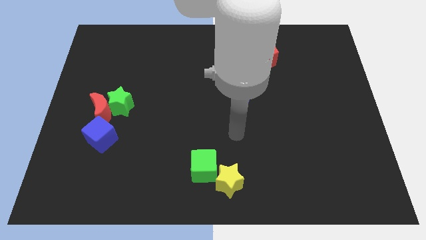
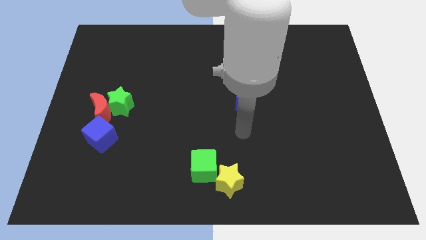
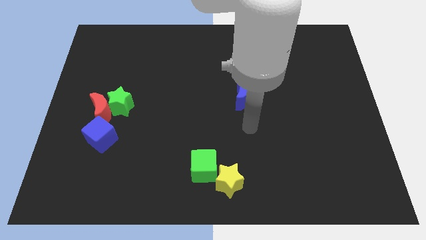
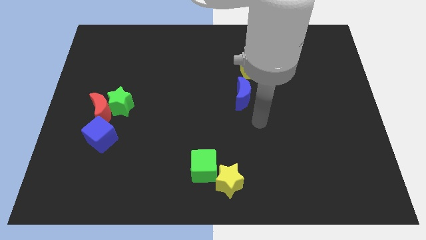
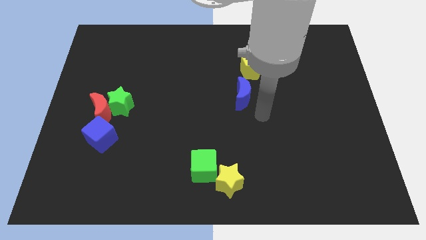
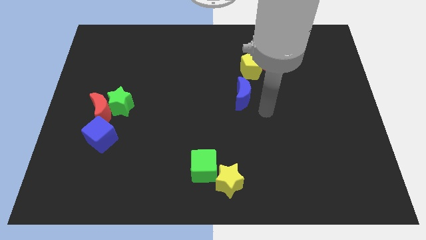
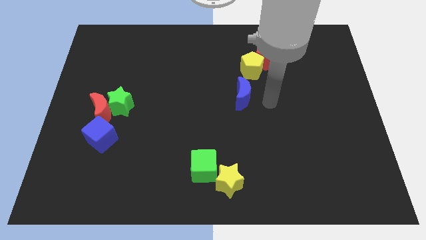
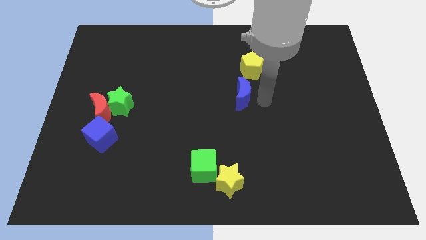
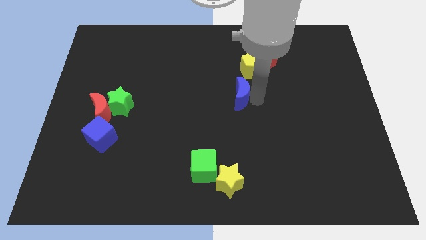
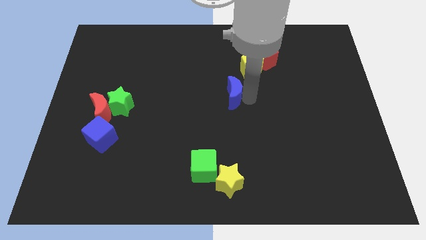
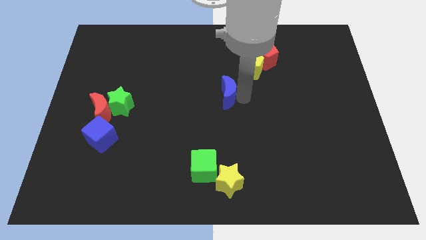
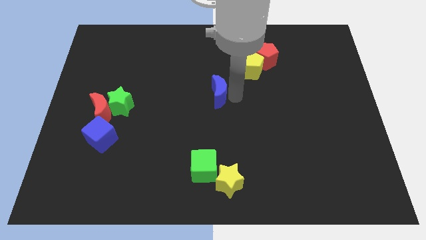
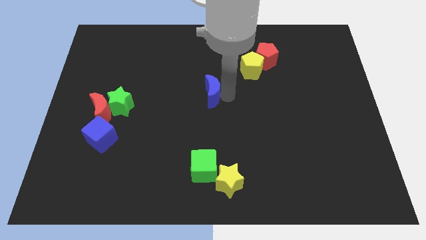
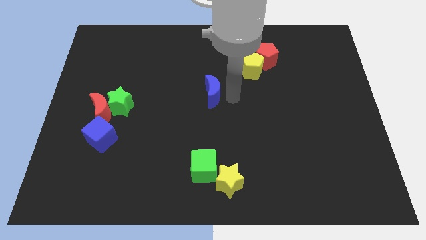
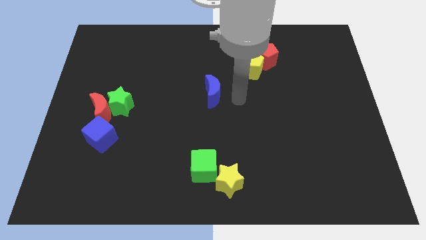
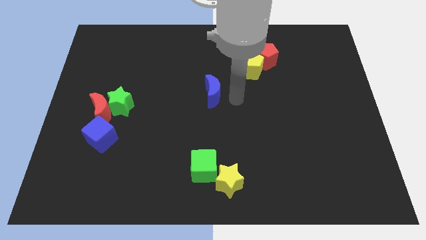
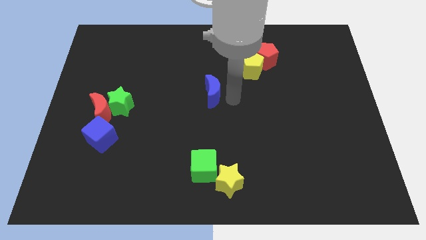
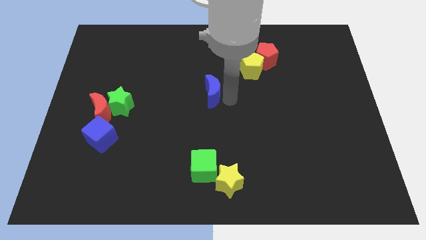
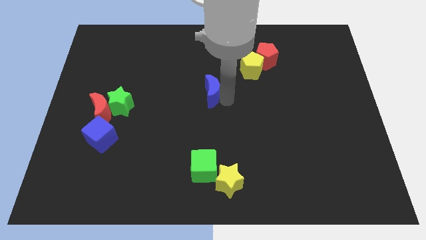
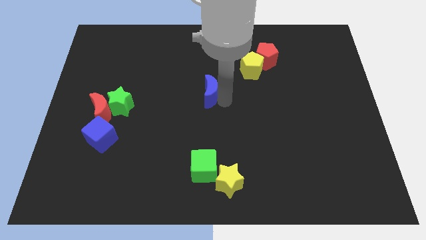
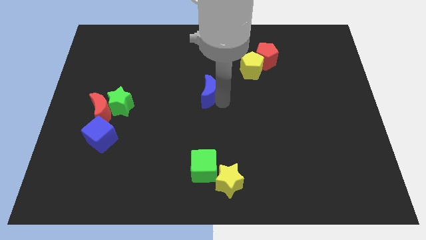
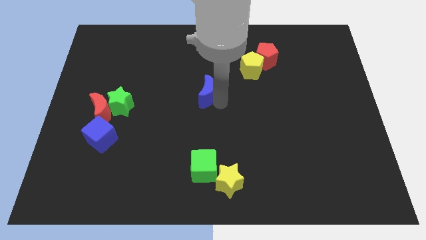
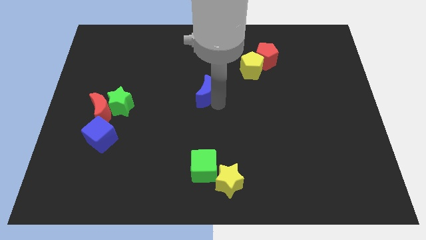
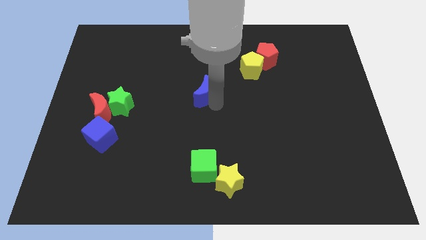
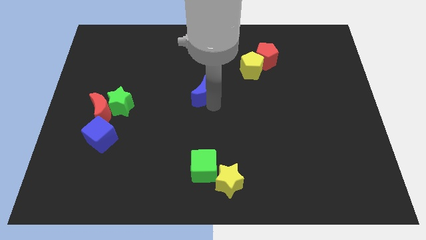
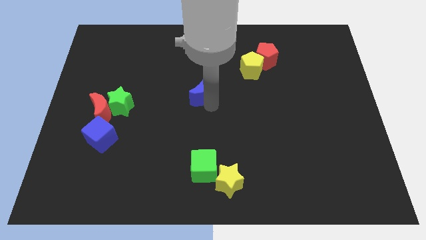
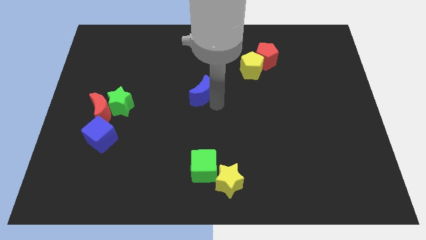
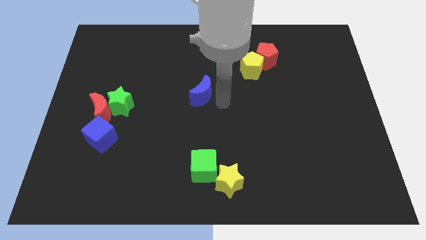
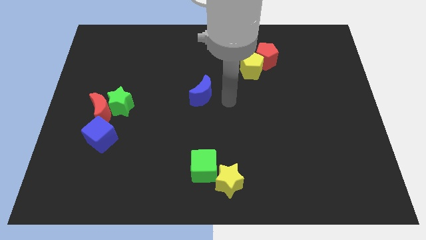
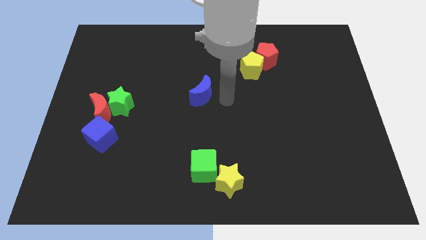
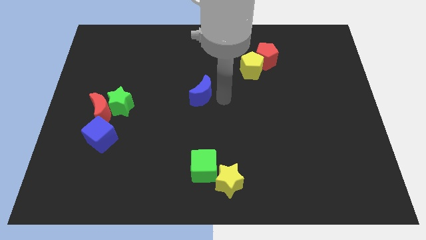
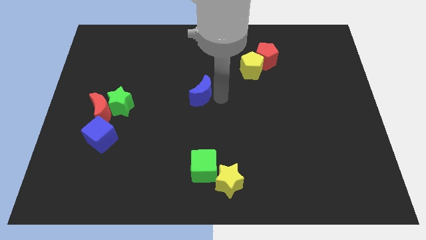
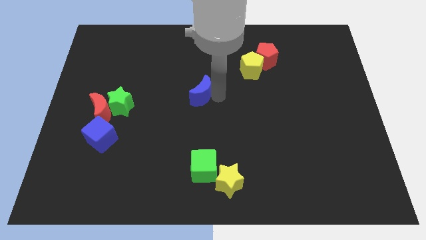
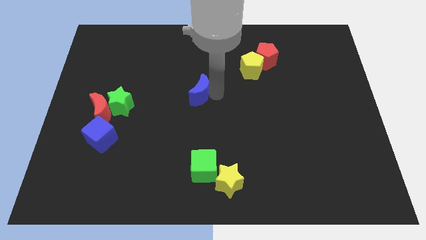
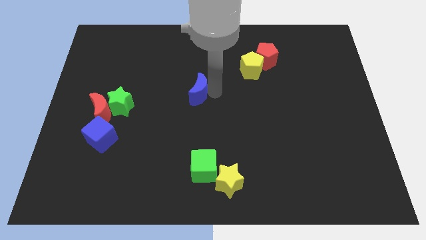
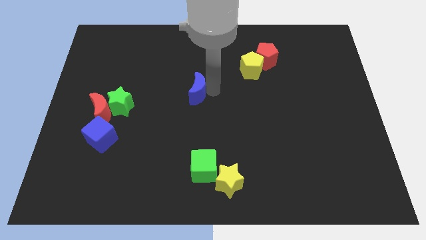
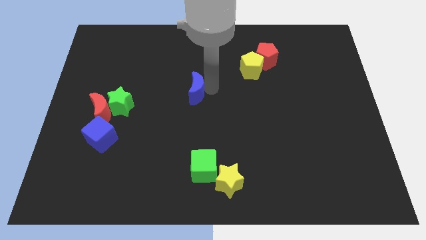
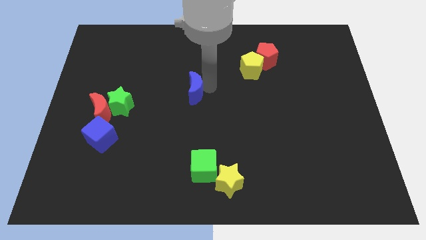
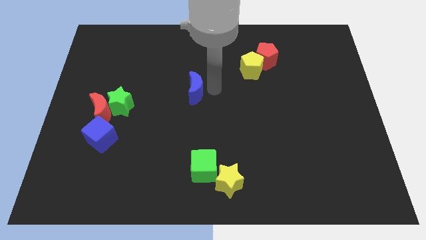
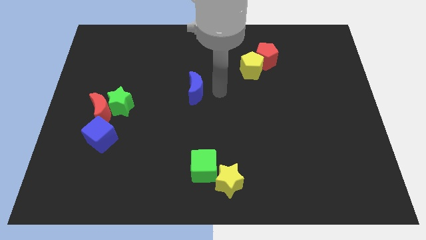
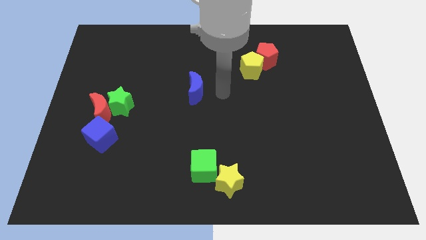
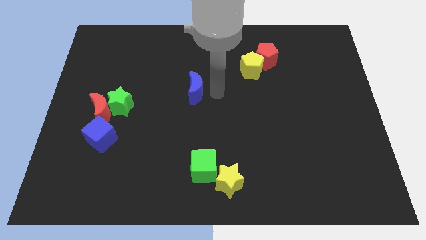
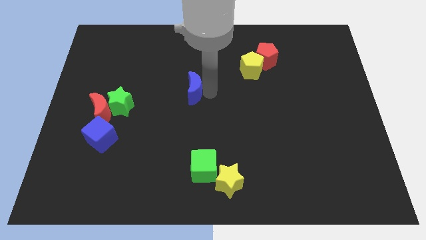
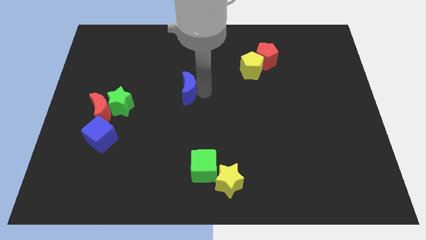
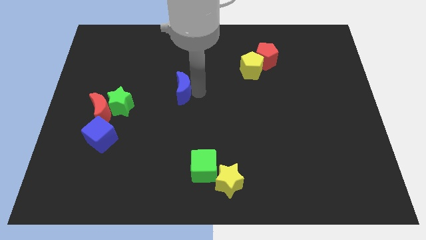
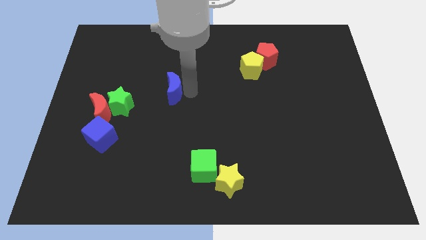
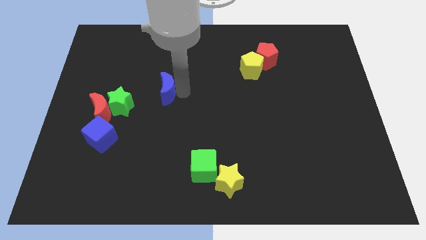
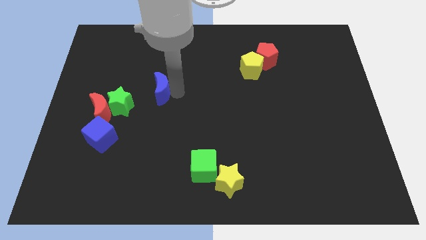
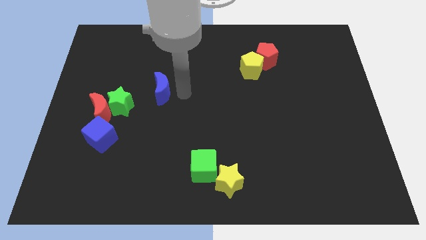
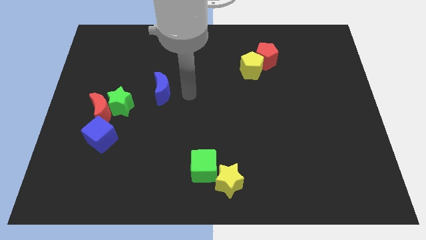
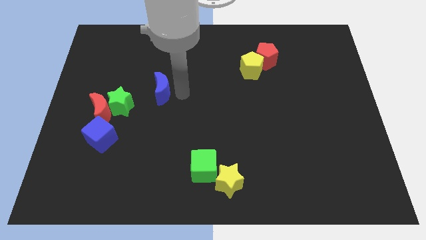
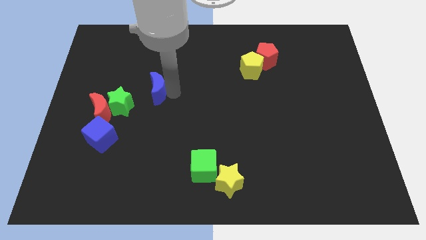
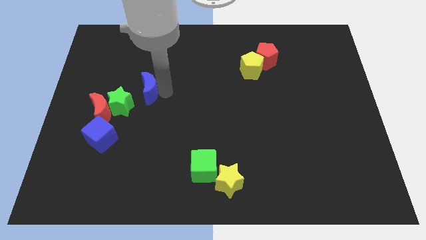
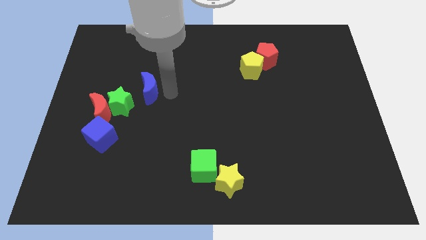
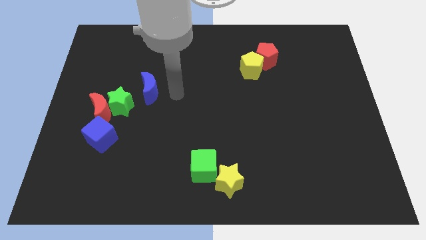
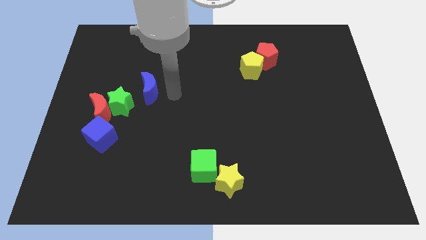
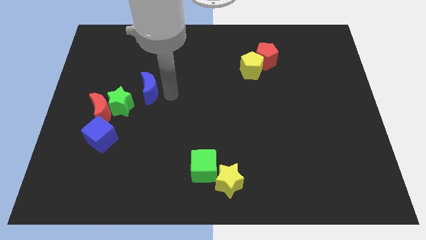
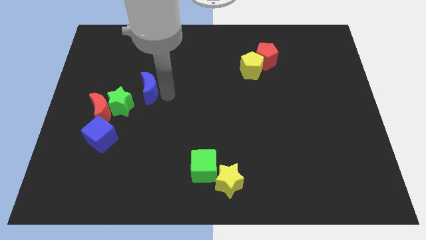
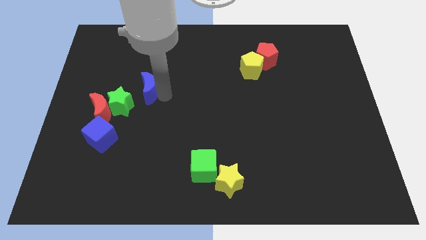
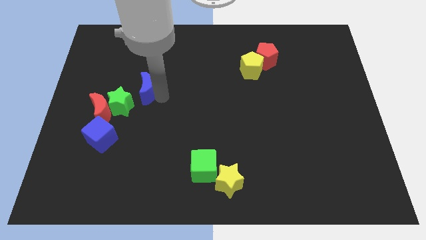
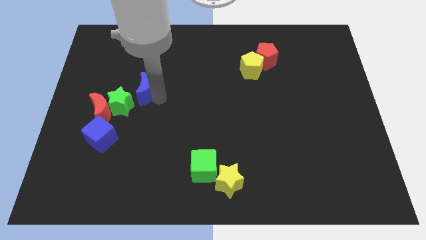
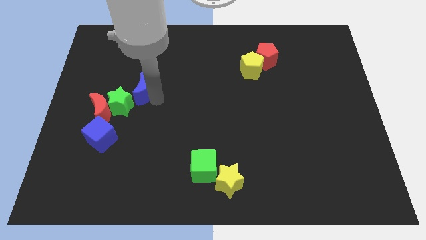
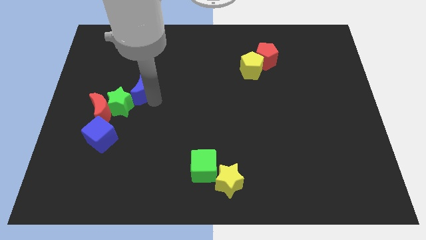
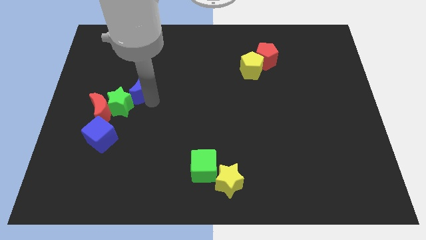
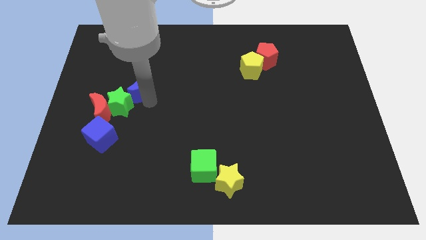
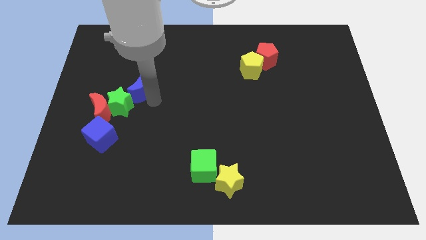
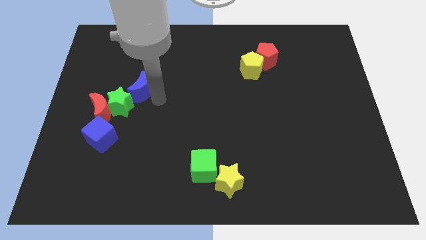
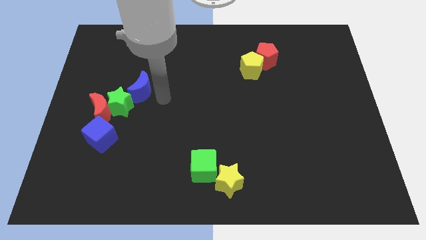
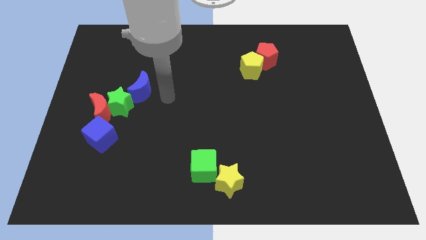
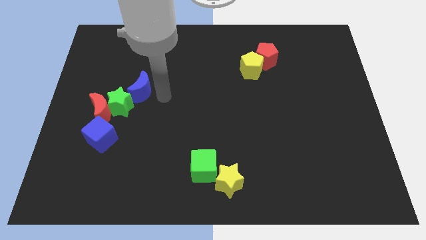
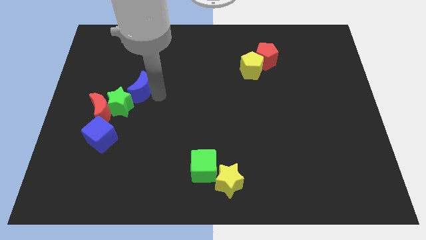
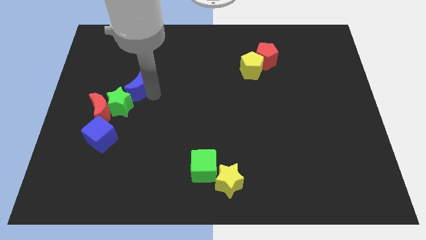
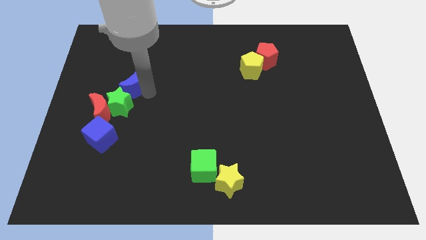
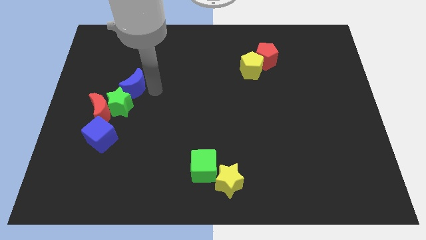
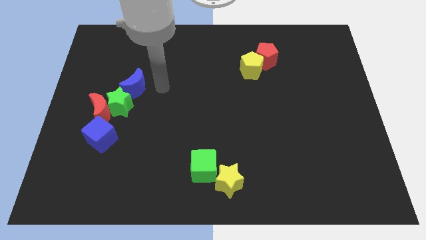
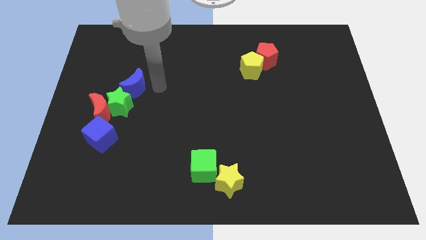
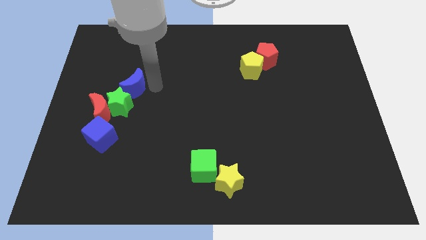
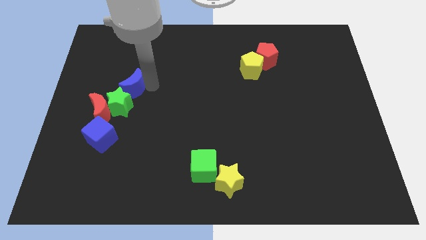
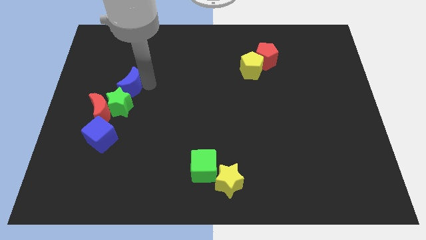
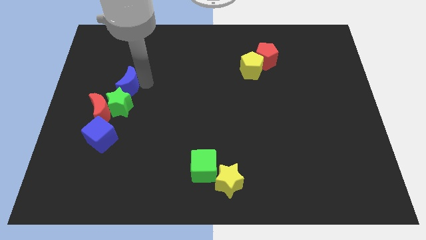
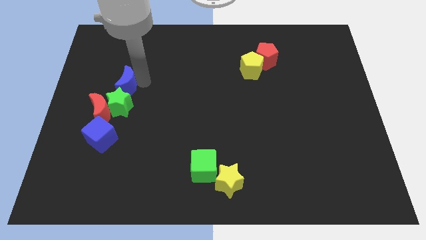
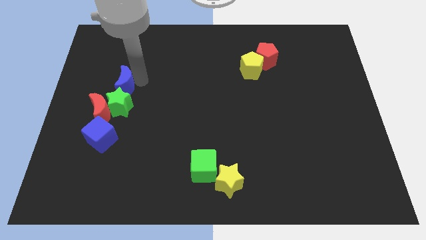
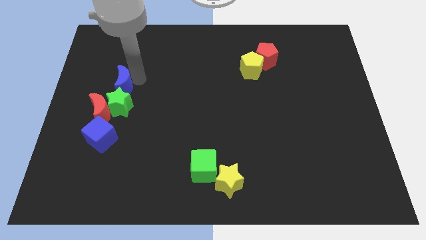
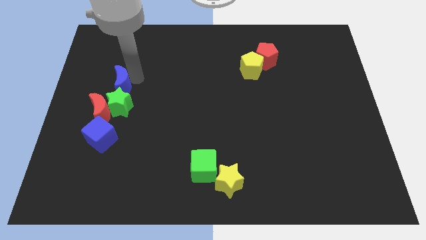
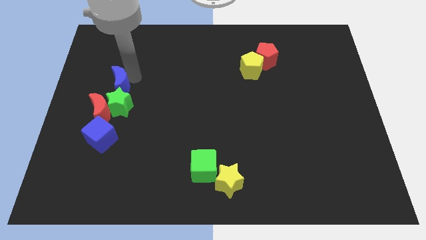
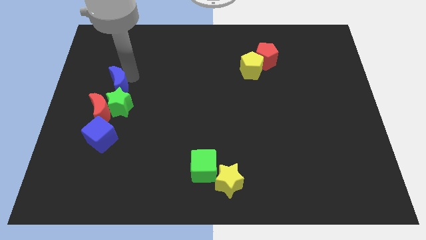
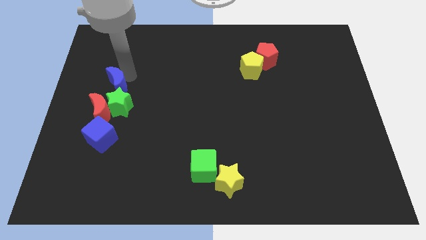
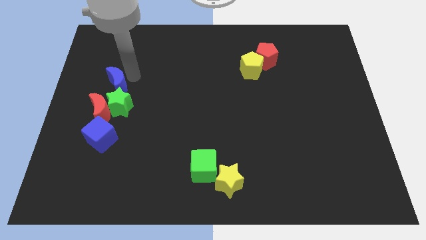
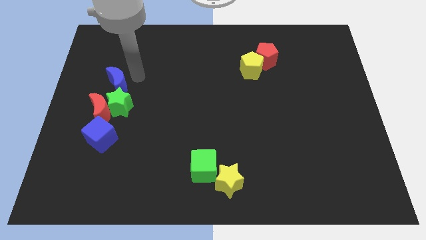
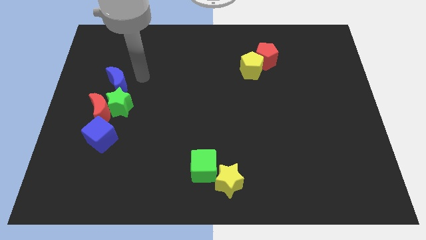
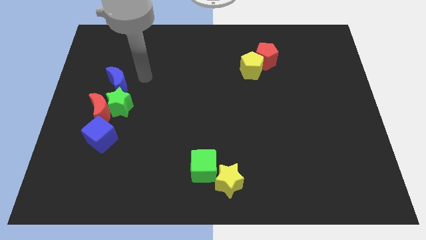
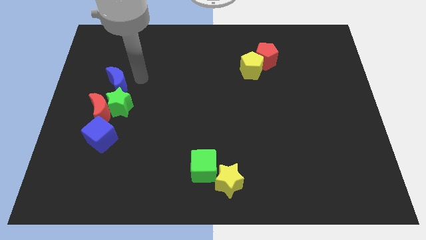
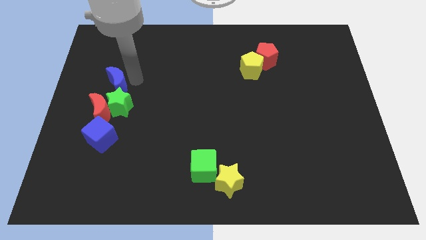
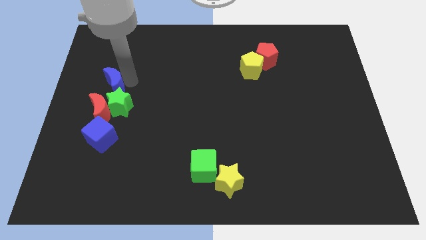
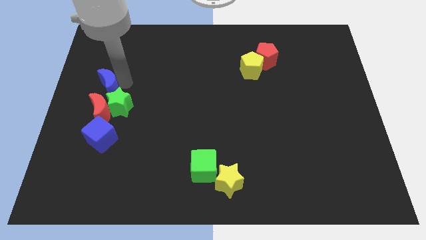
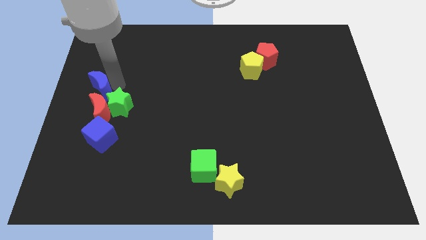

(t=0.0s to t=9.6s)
slide the blue moon to the center left
